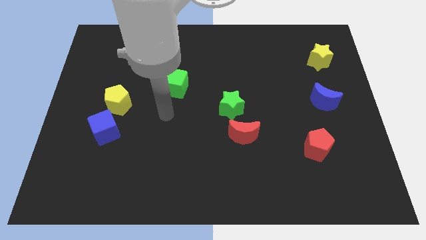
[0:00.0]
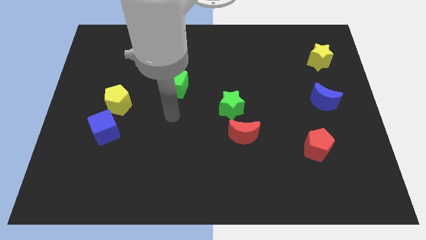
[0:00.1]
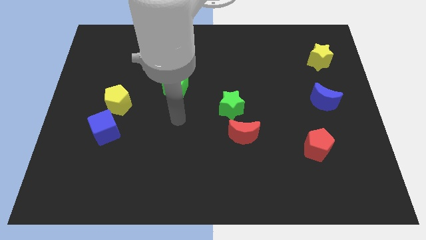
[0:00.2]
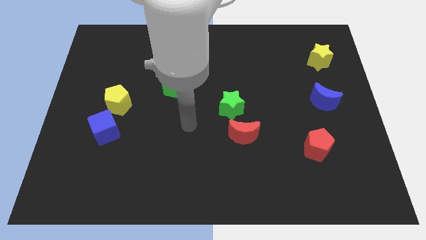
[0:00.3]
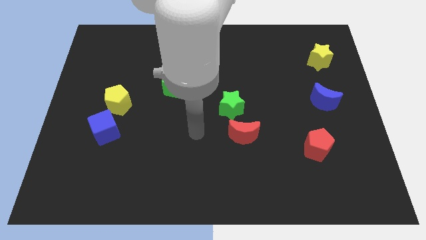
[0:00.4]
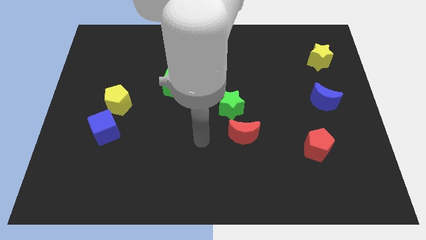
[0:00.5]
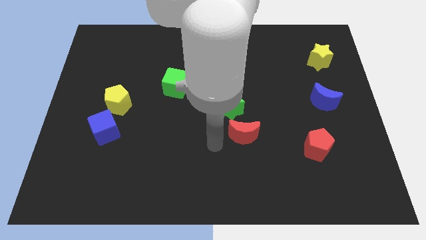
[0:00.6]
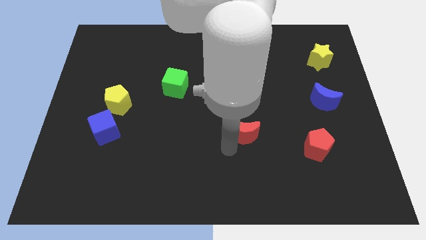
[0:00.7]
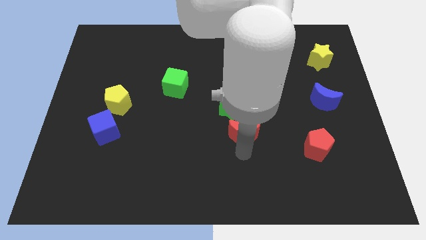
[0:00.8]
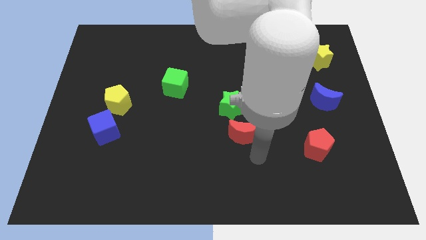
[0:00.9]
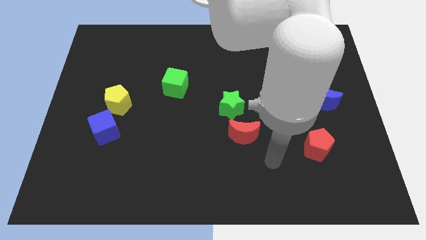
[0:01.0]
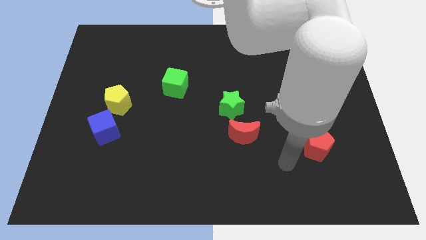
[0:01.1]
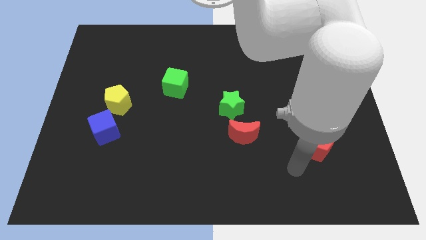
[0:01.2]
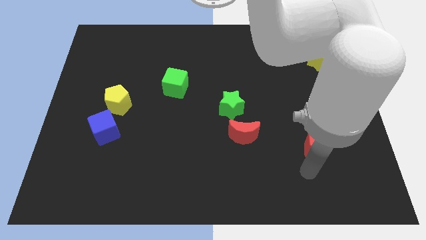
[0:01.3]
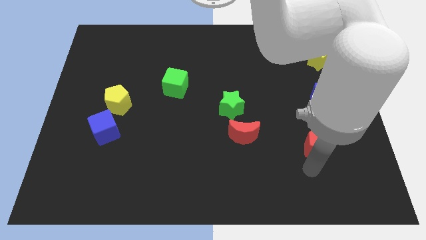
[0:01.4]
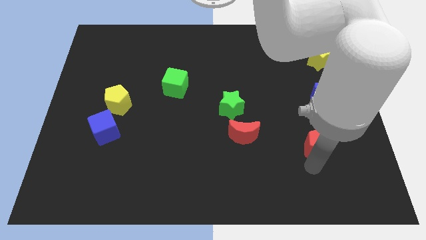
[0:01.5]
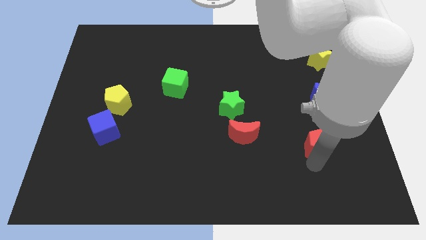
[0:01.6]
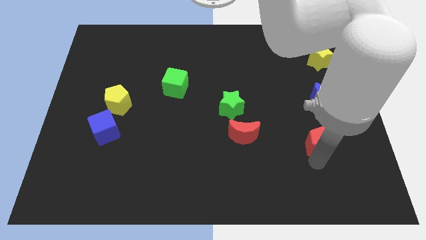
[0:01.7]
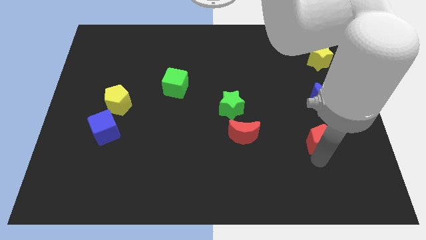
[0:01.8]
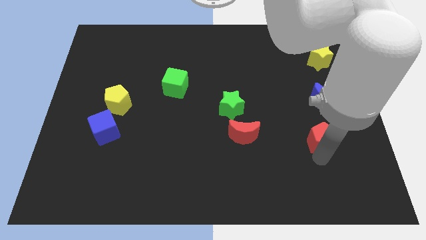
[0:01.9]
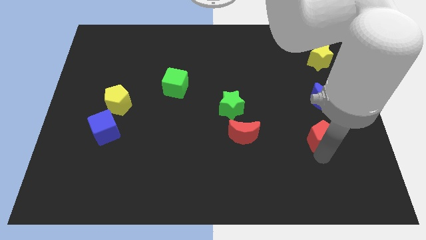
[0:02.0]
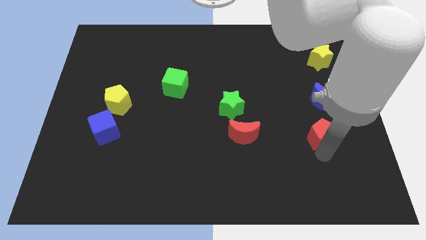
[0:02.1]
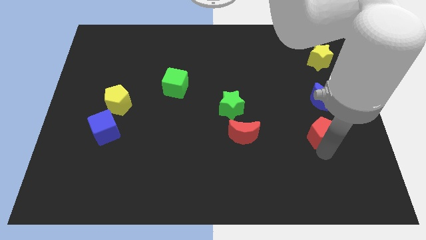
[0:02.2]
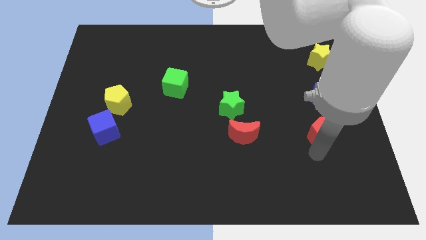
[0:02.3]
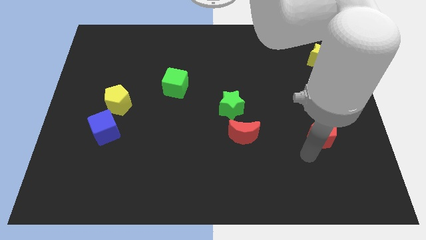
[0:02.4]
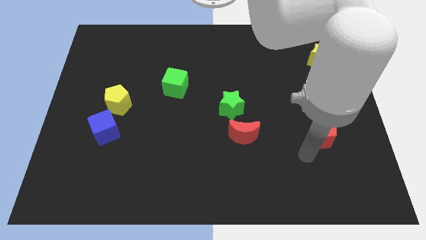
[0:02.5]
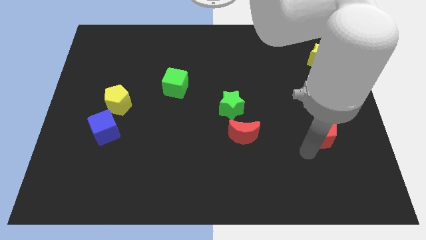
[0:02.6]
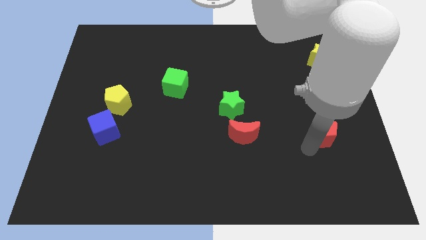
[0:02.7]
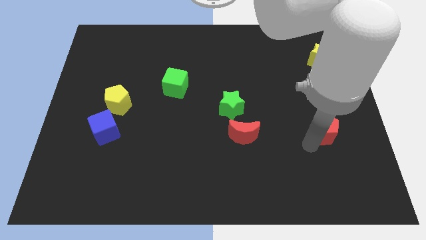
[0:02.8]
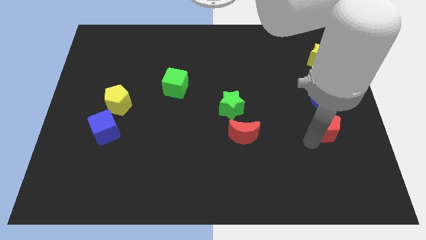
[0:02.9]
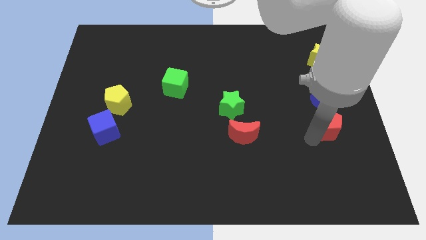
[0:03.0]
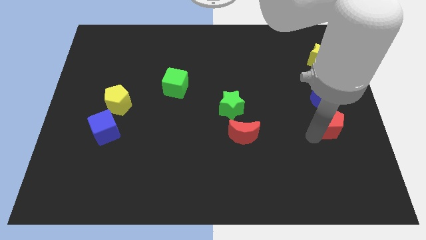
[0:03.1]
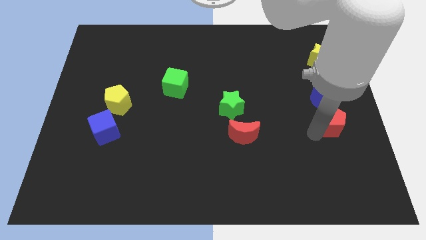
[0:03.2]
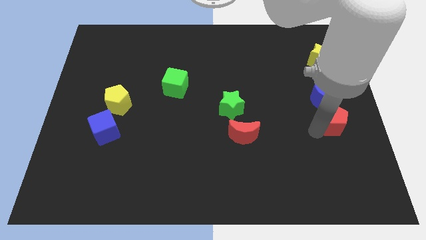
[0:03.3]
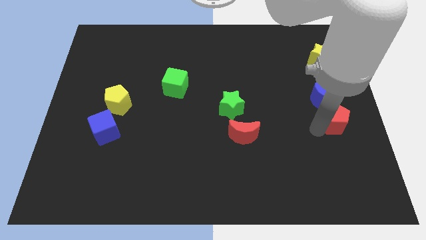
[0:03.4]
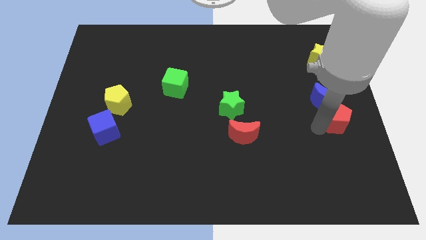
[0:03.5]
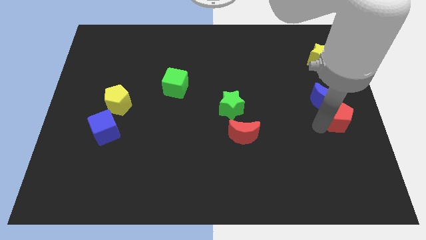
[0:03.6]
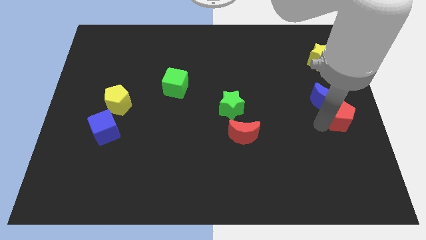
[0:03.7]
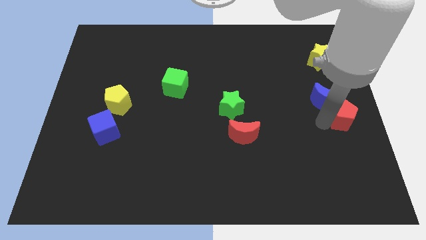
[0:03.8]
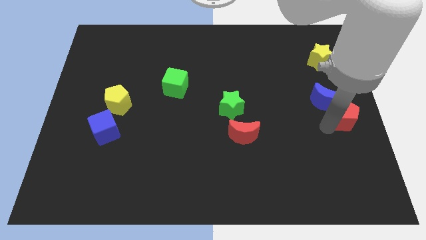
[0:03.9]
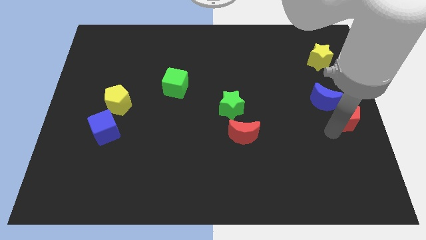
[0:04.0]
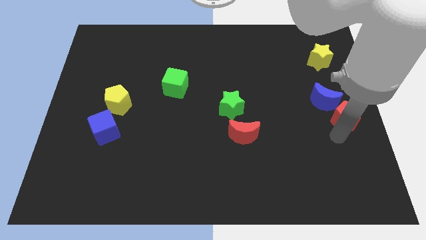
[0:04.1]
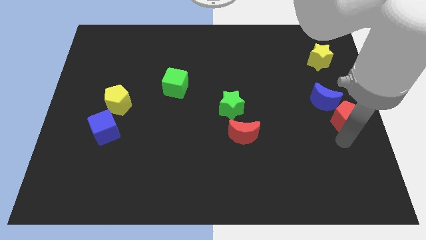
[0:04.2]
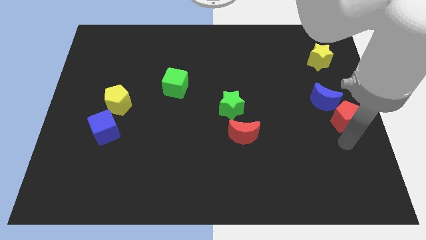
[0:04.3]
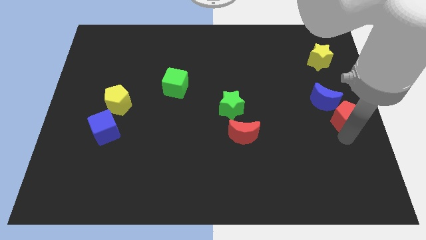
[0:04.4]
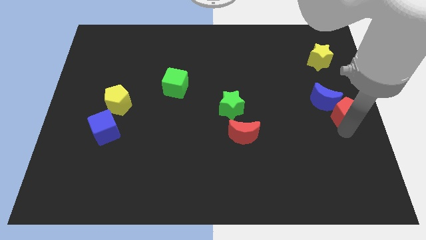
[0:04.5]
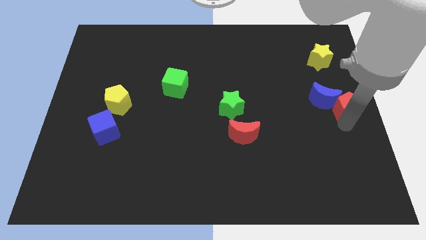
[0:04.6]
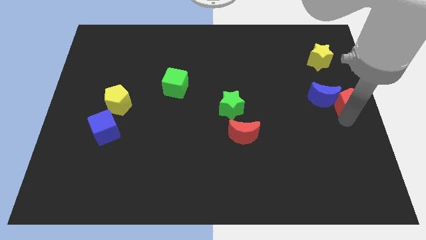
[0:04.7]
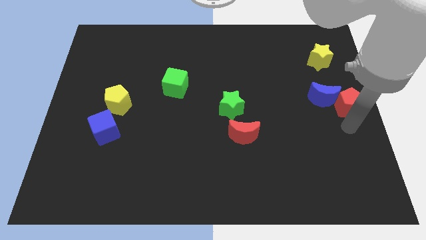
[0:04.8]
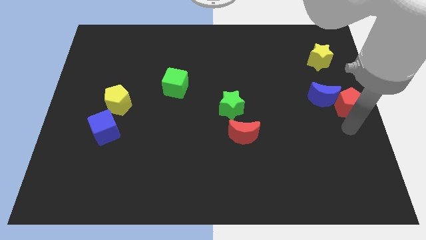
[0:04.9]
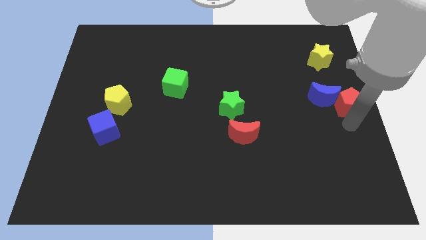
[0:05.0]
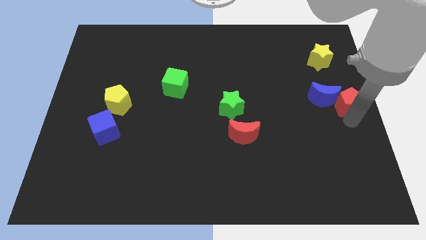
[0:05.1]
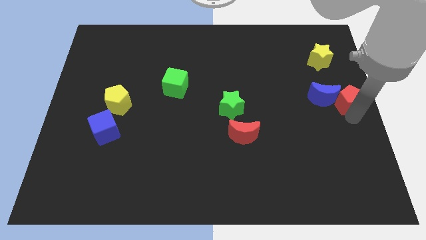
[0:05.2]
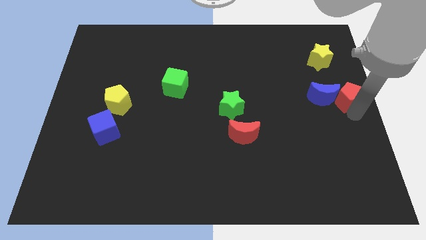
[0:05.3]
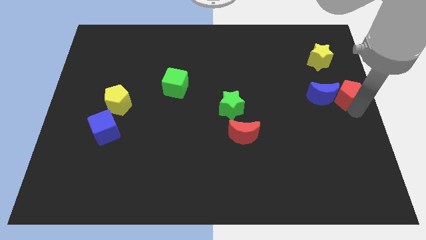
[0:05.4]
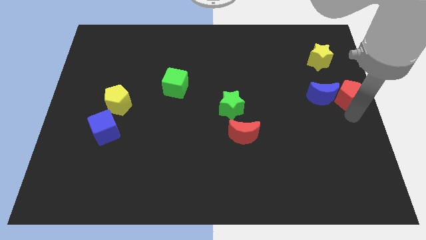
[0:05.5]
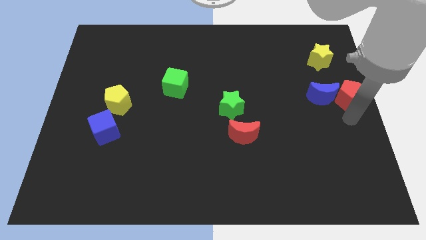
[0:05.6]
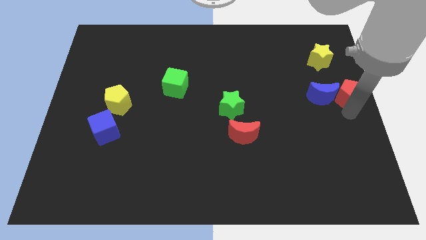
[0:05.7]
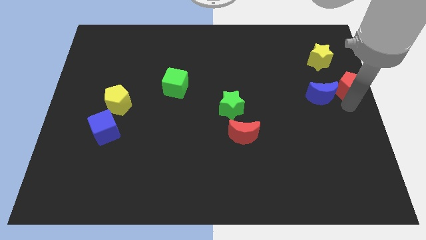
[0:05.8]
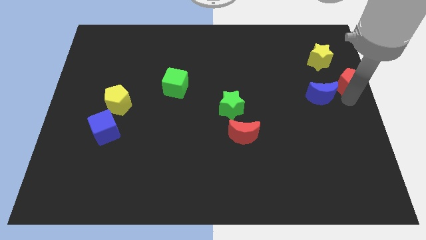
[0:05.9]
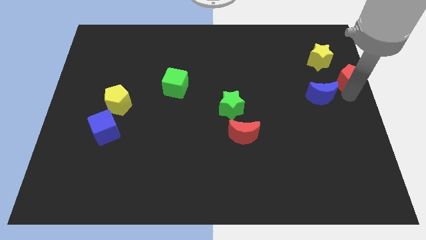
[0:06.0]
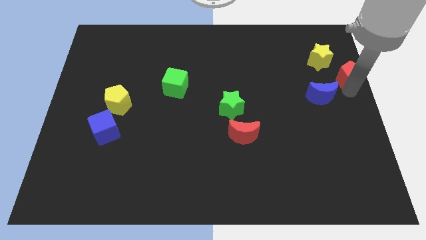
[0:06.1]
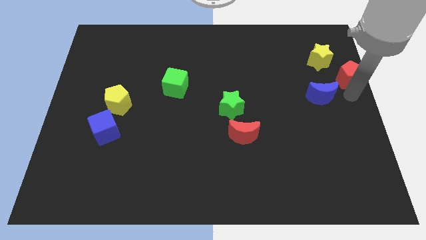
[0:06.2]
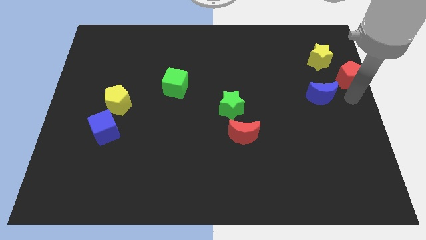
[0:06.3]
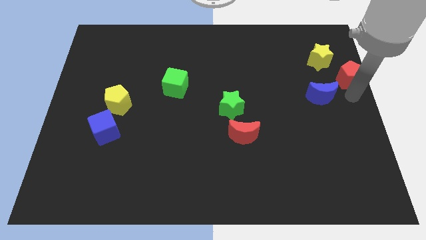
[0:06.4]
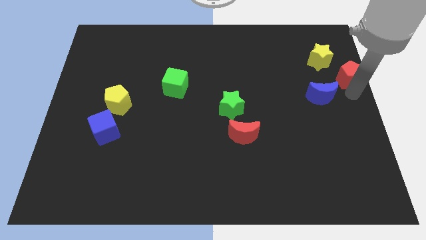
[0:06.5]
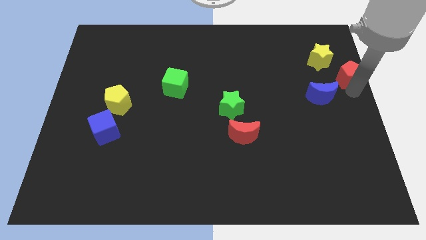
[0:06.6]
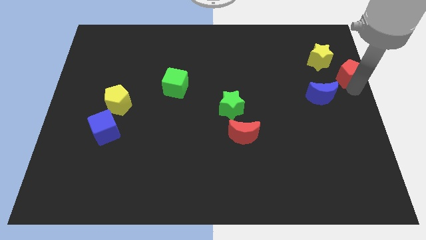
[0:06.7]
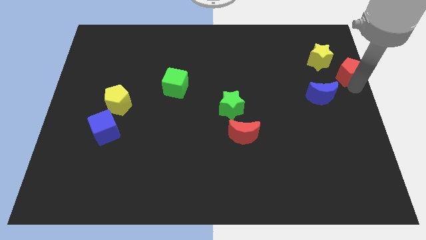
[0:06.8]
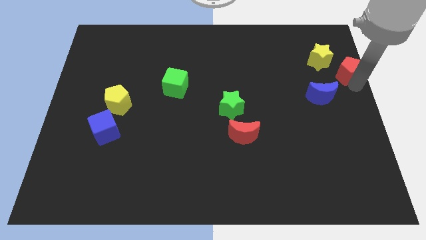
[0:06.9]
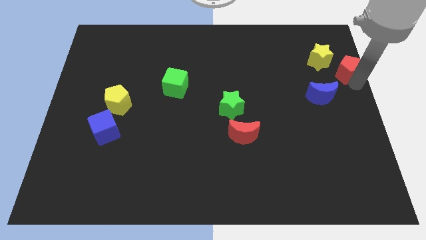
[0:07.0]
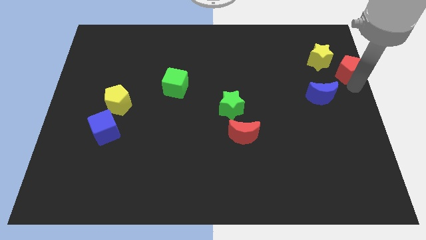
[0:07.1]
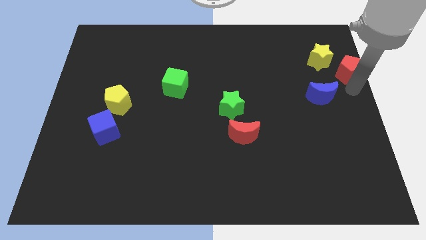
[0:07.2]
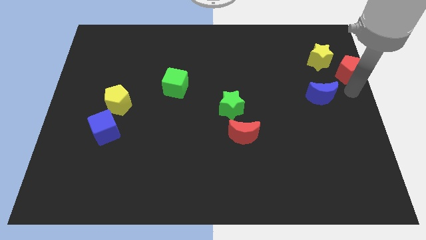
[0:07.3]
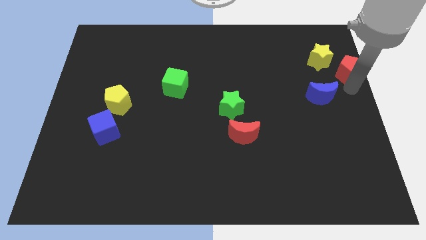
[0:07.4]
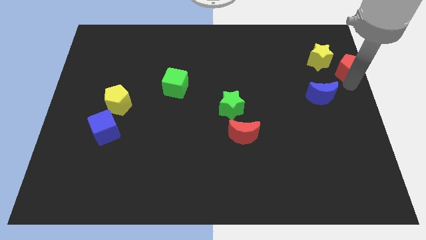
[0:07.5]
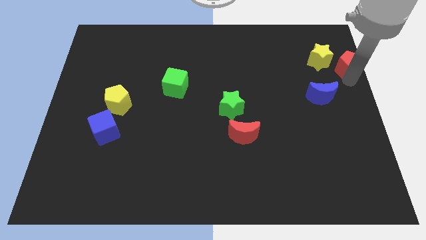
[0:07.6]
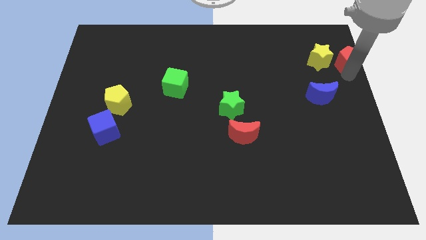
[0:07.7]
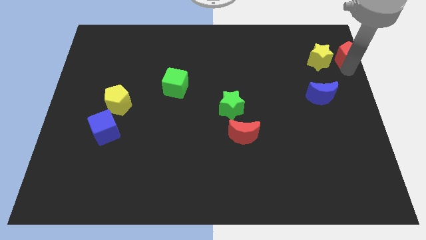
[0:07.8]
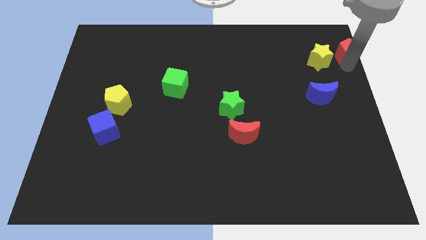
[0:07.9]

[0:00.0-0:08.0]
push the red pentagon to the top right of the board
